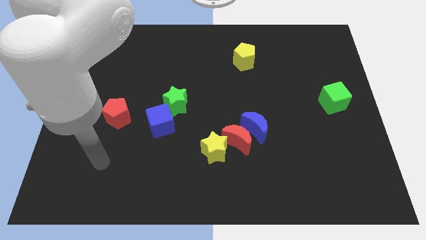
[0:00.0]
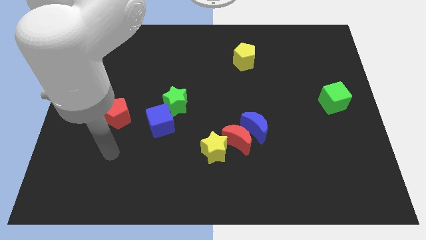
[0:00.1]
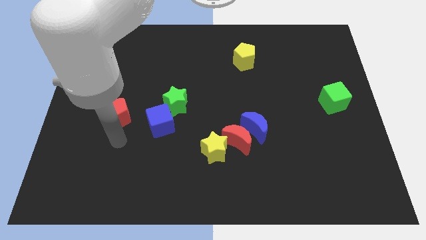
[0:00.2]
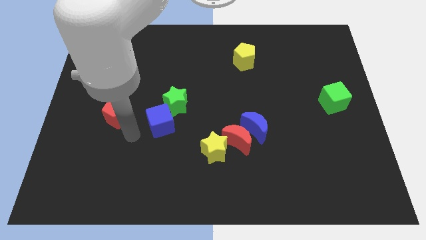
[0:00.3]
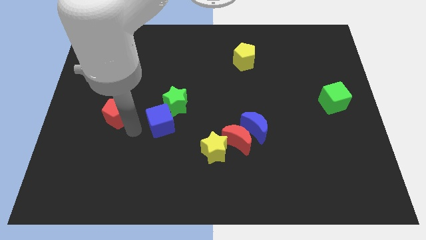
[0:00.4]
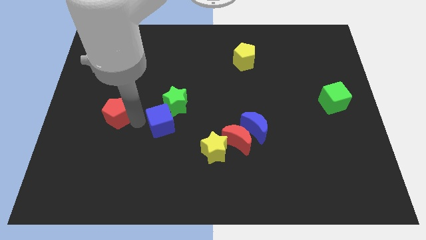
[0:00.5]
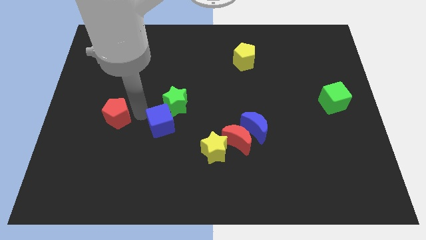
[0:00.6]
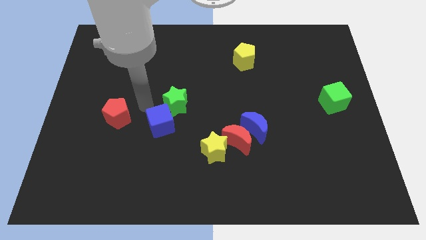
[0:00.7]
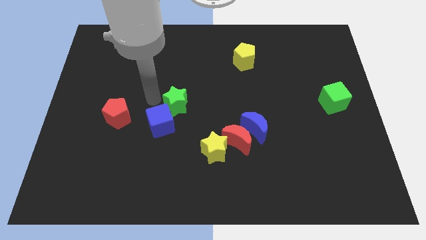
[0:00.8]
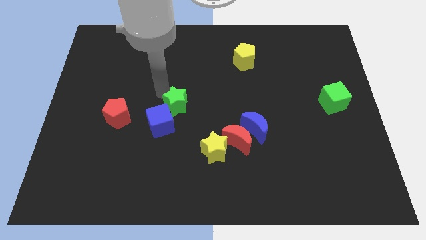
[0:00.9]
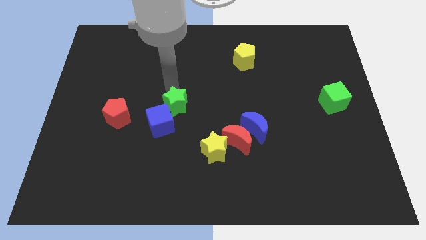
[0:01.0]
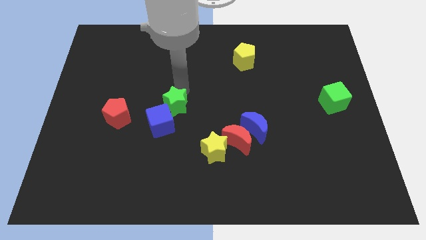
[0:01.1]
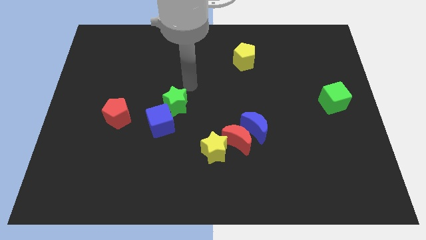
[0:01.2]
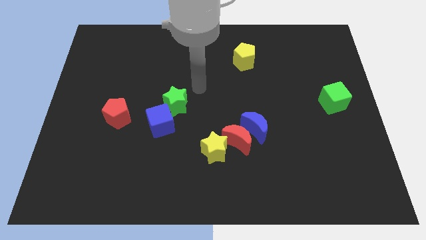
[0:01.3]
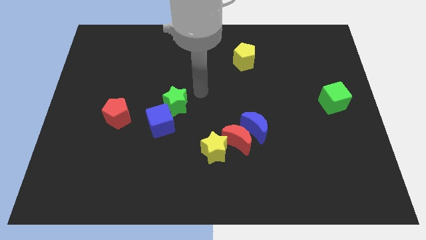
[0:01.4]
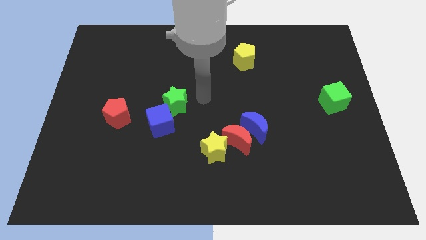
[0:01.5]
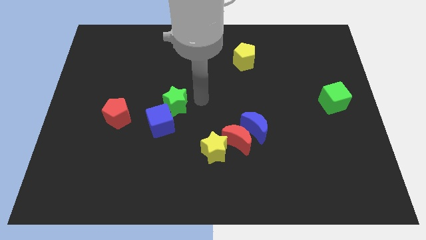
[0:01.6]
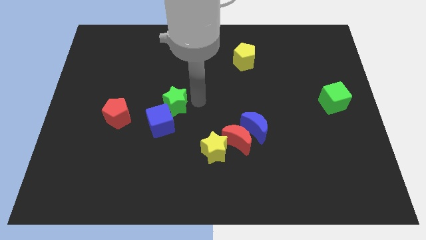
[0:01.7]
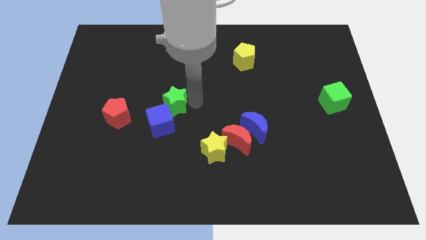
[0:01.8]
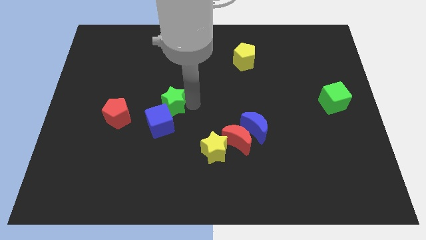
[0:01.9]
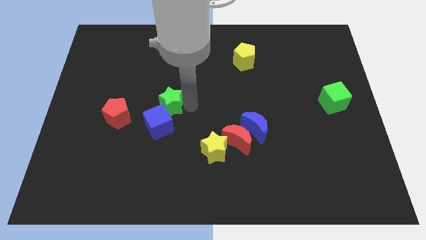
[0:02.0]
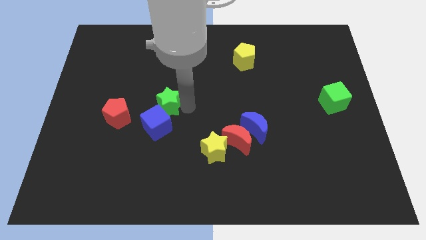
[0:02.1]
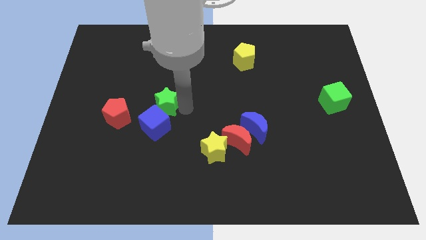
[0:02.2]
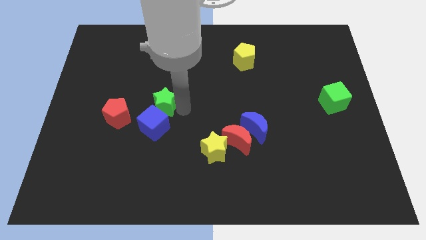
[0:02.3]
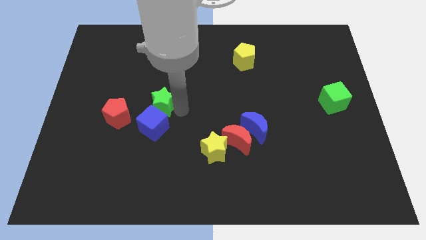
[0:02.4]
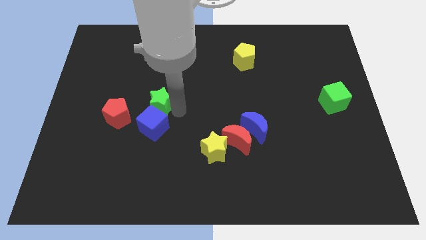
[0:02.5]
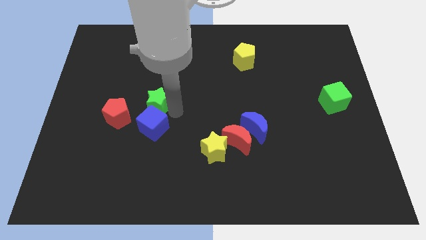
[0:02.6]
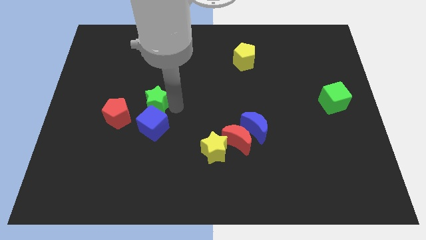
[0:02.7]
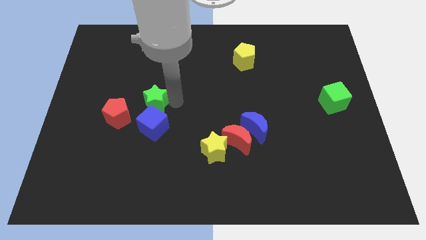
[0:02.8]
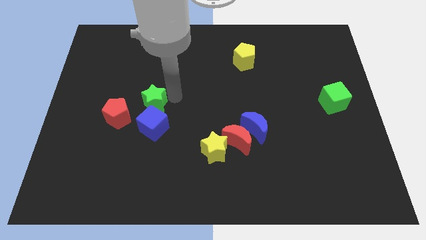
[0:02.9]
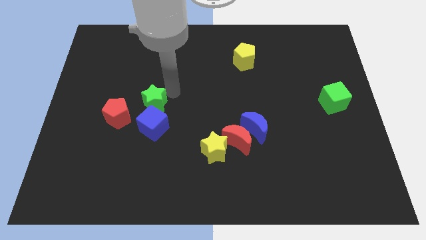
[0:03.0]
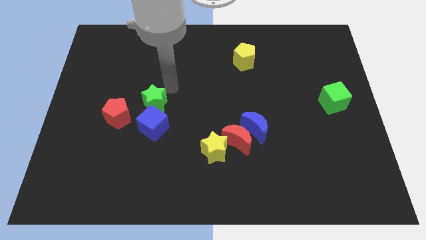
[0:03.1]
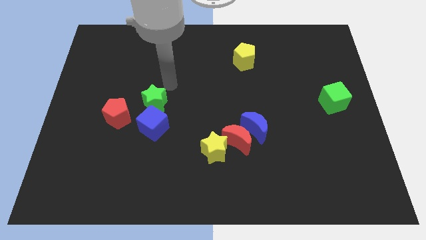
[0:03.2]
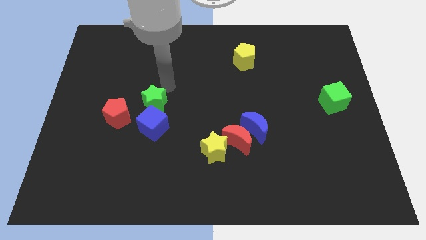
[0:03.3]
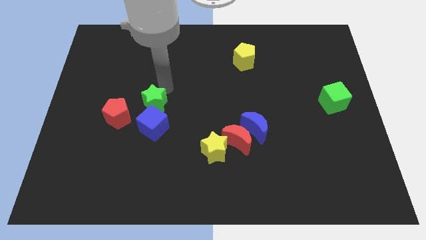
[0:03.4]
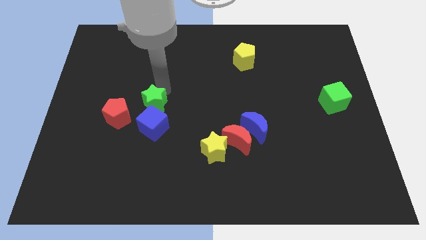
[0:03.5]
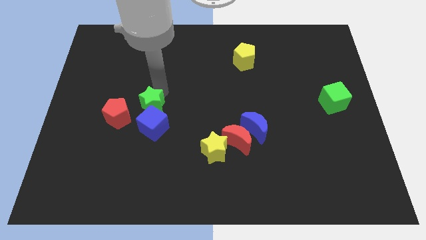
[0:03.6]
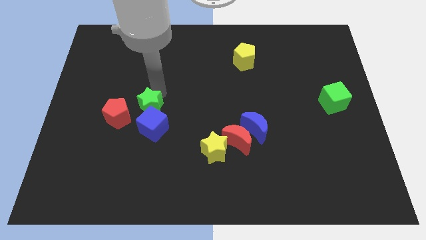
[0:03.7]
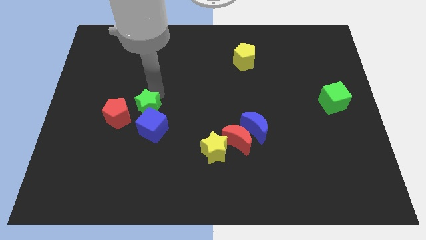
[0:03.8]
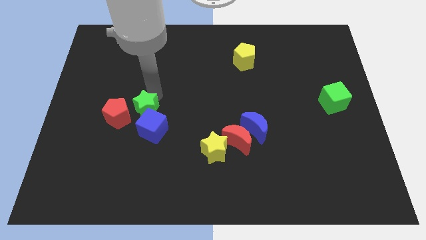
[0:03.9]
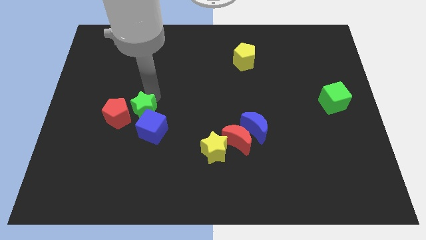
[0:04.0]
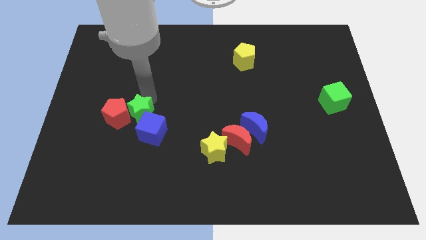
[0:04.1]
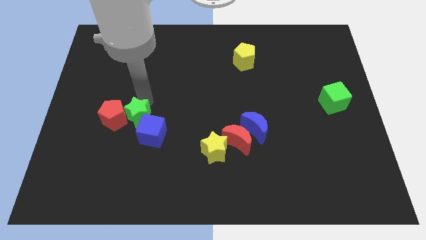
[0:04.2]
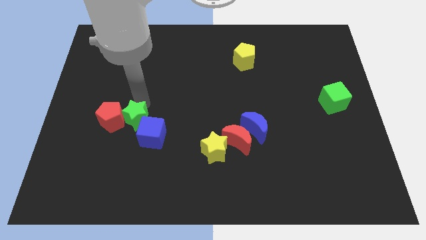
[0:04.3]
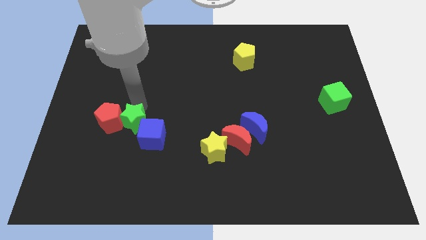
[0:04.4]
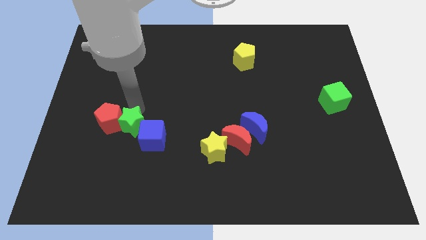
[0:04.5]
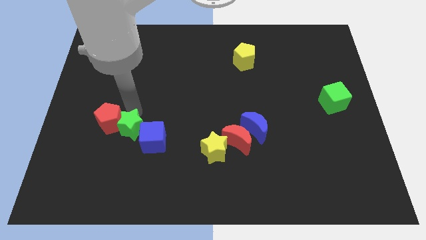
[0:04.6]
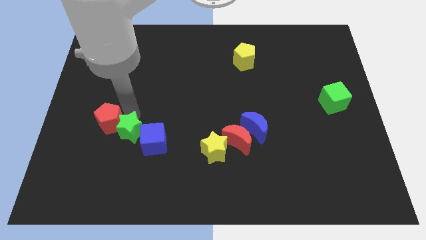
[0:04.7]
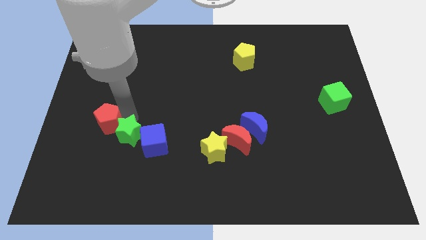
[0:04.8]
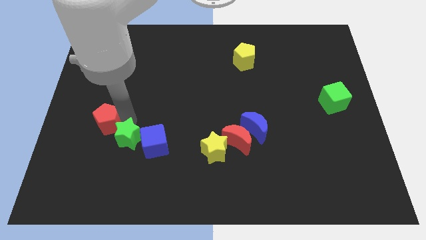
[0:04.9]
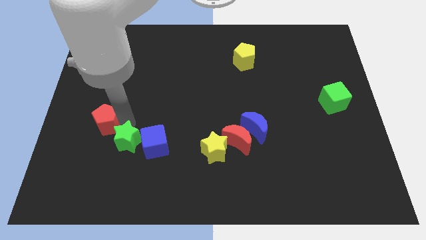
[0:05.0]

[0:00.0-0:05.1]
push the green star to the bottom left of the blue cube

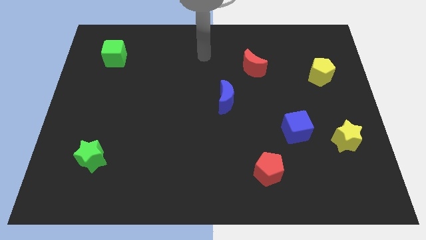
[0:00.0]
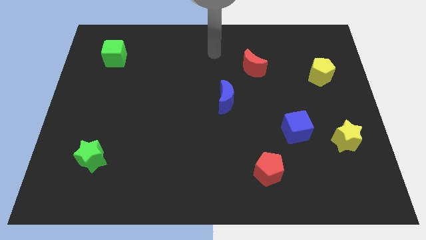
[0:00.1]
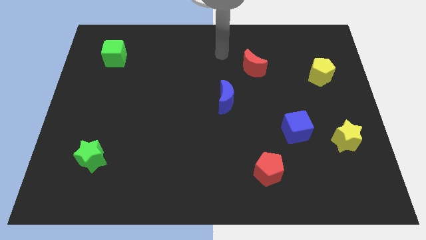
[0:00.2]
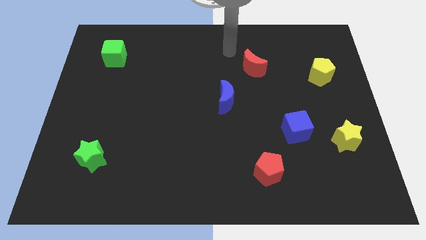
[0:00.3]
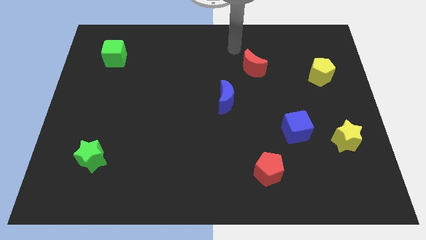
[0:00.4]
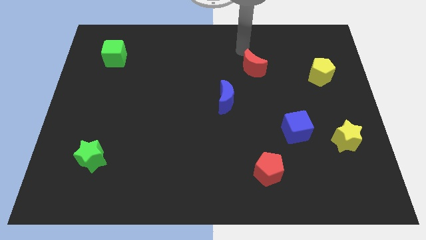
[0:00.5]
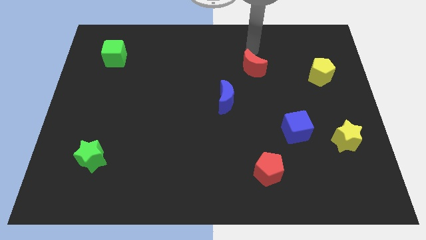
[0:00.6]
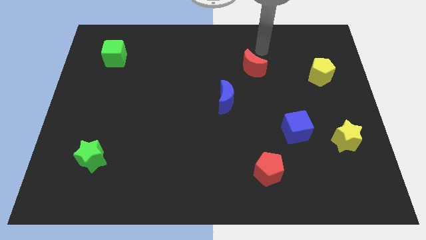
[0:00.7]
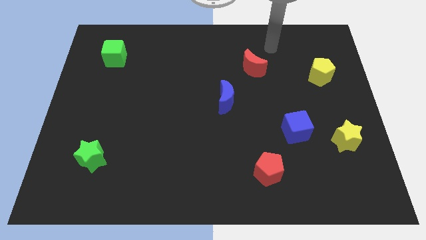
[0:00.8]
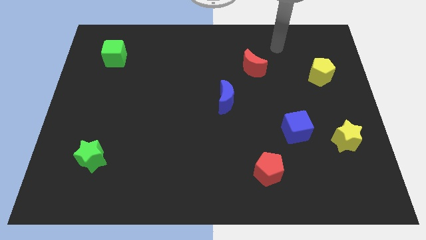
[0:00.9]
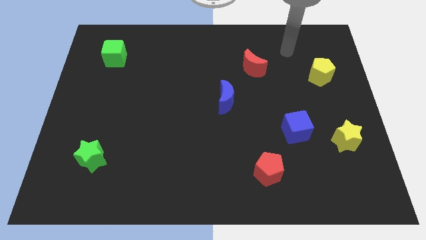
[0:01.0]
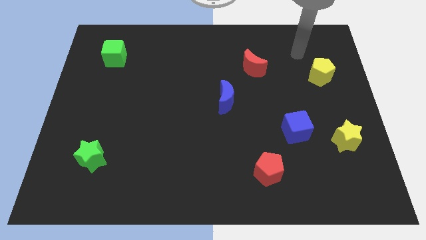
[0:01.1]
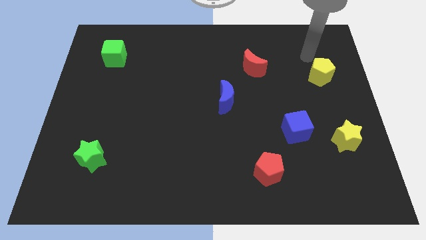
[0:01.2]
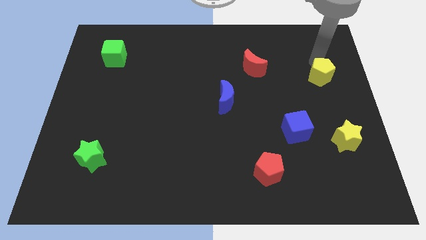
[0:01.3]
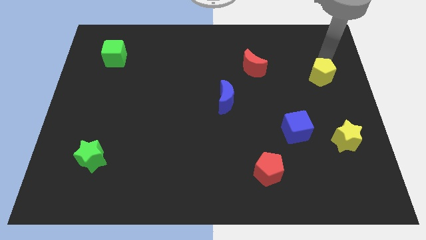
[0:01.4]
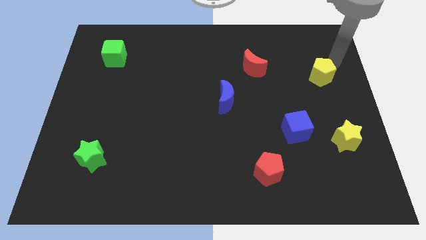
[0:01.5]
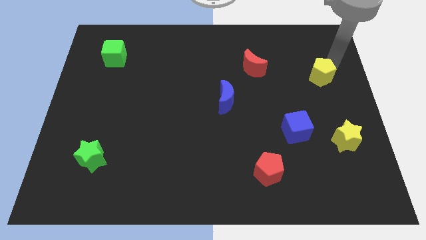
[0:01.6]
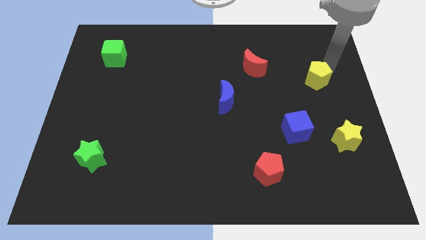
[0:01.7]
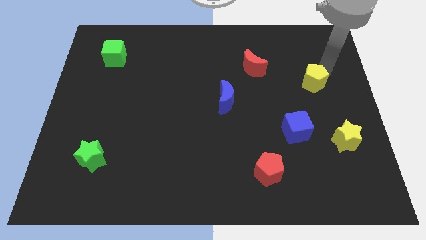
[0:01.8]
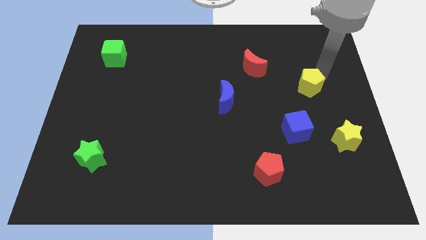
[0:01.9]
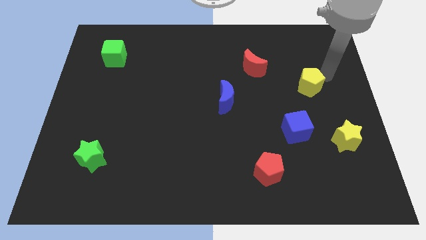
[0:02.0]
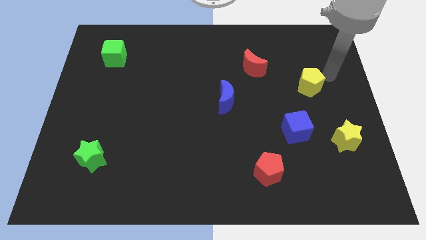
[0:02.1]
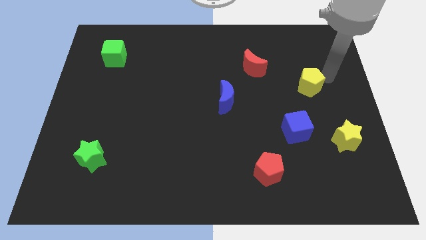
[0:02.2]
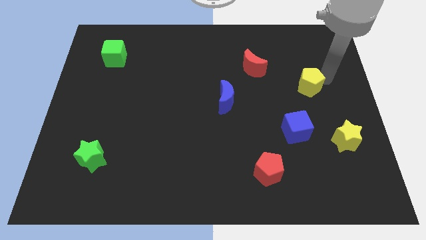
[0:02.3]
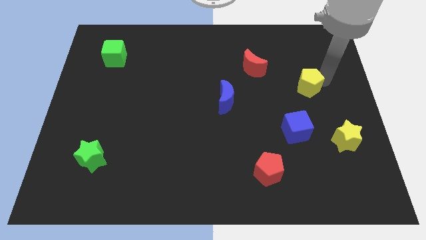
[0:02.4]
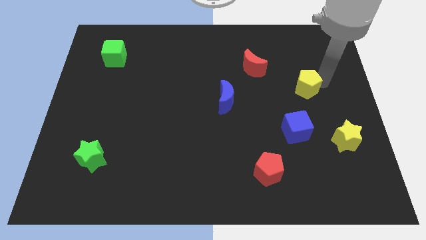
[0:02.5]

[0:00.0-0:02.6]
put the yellow pentagon to the top side of the blue cube
